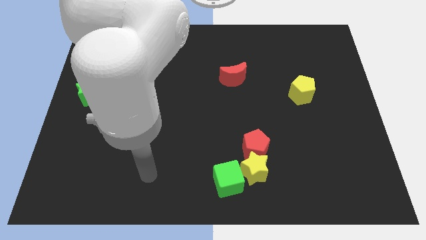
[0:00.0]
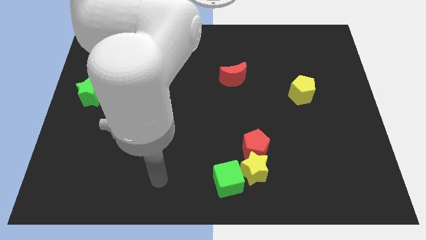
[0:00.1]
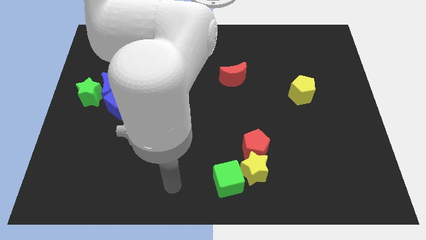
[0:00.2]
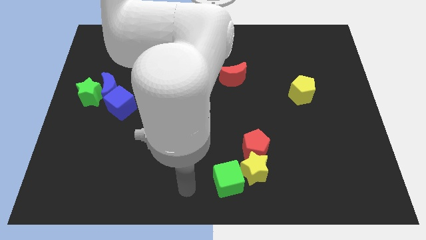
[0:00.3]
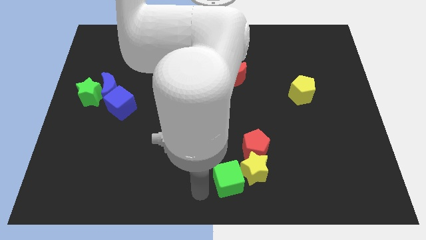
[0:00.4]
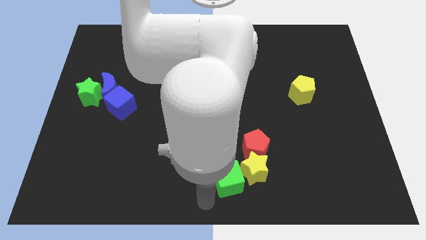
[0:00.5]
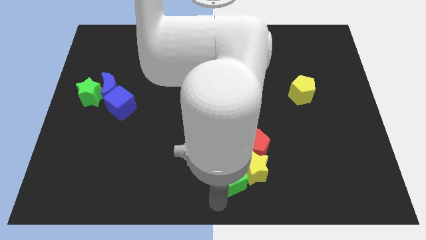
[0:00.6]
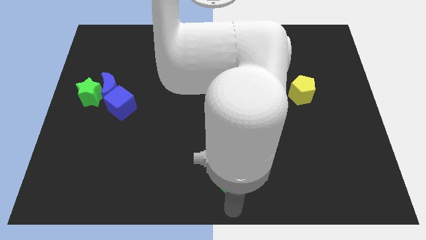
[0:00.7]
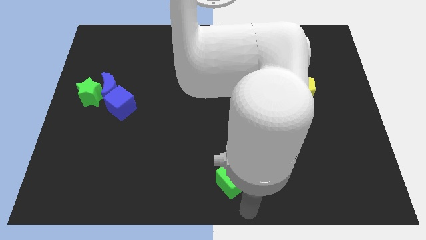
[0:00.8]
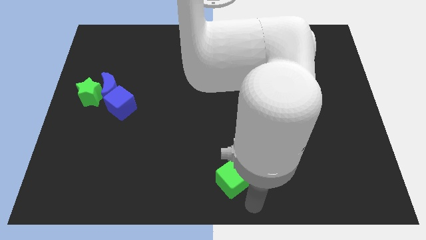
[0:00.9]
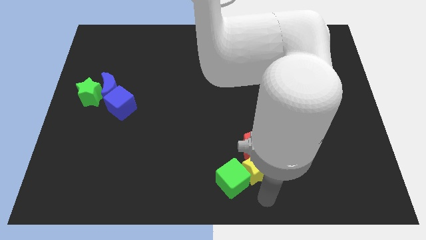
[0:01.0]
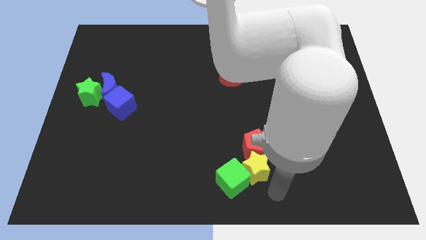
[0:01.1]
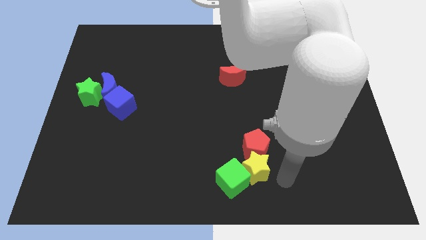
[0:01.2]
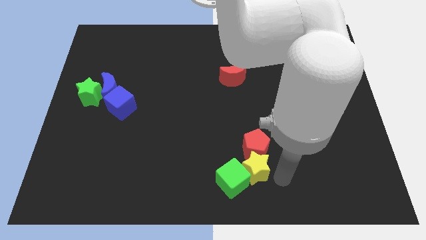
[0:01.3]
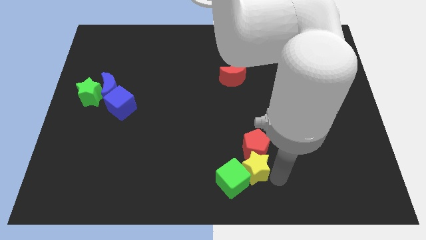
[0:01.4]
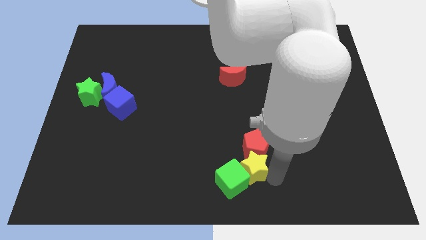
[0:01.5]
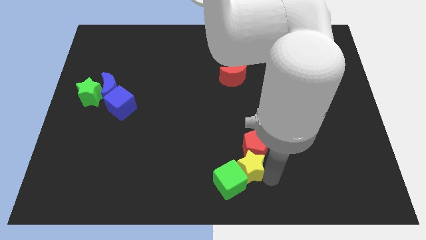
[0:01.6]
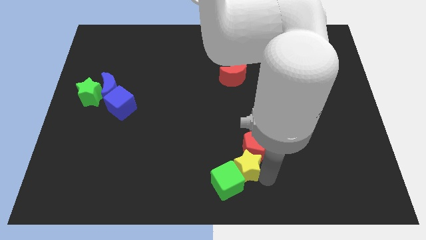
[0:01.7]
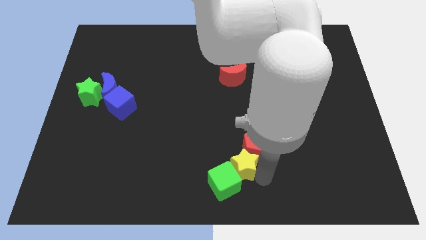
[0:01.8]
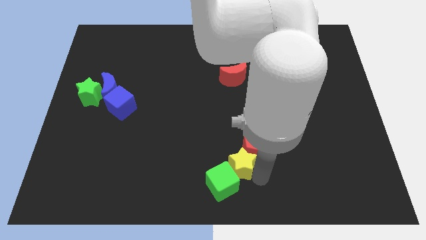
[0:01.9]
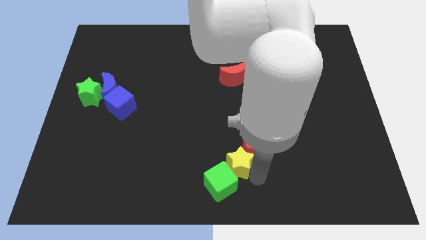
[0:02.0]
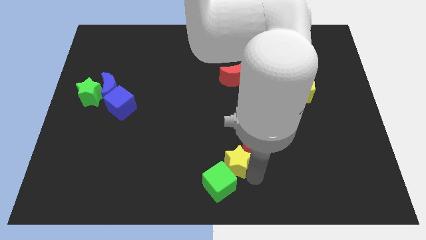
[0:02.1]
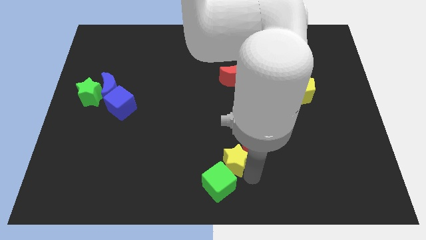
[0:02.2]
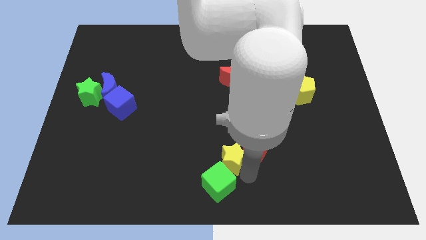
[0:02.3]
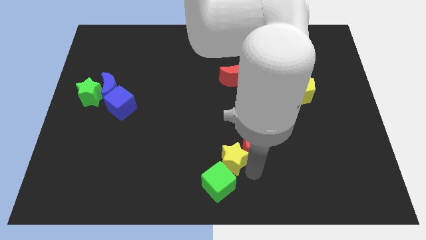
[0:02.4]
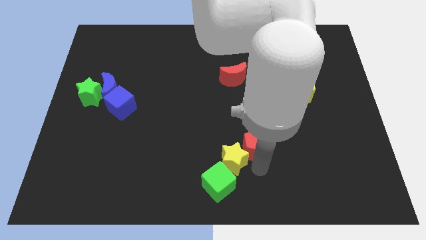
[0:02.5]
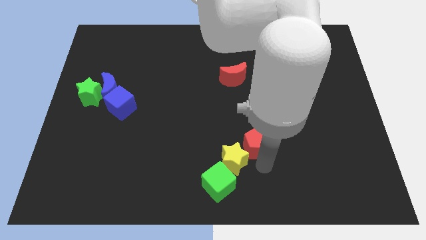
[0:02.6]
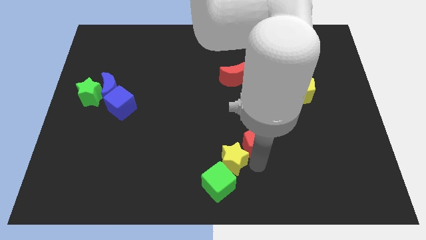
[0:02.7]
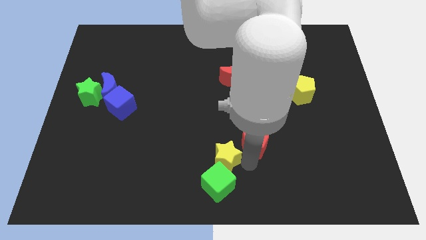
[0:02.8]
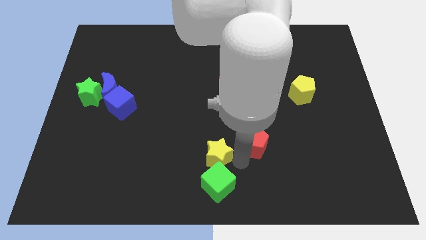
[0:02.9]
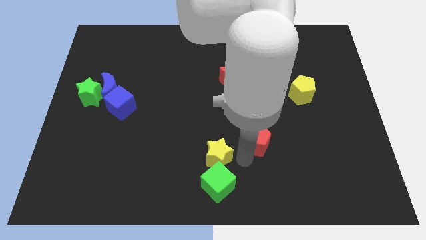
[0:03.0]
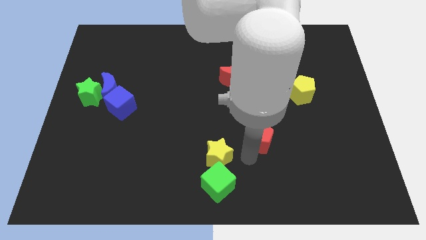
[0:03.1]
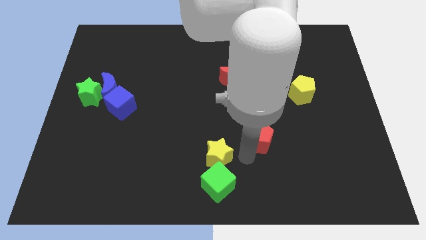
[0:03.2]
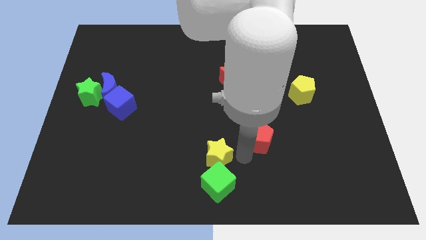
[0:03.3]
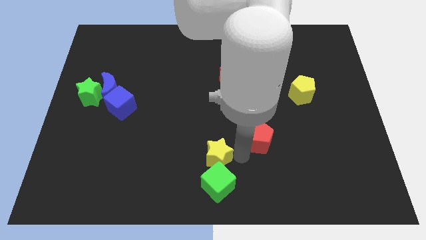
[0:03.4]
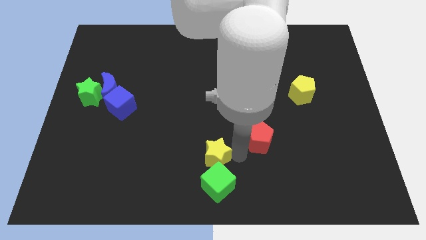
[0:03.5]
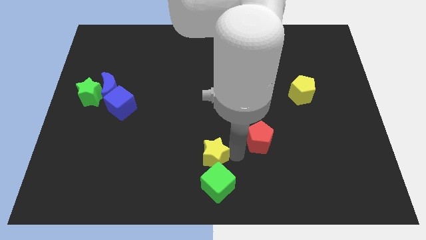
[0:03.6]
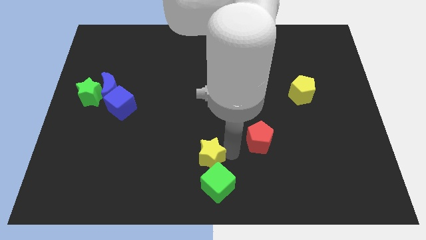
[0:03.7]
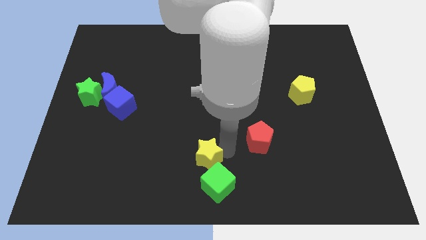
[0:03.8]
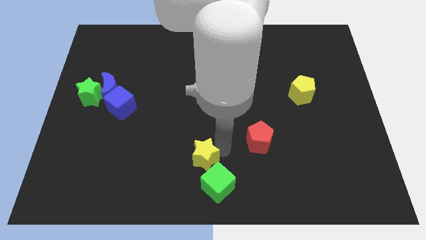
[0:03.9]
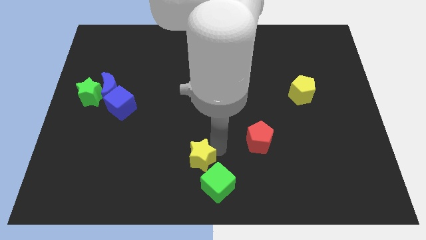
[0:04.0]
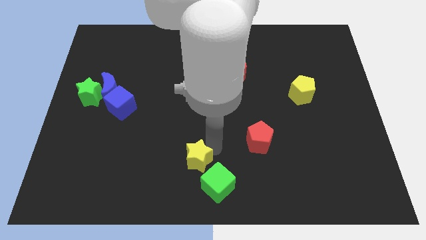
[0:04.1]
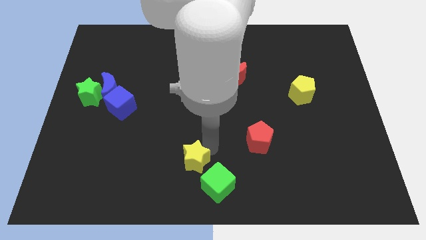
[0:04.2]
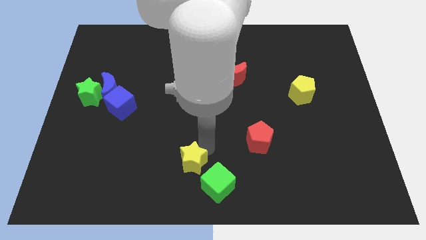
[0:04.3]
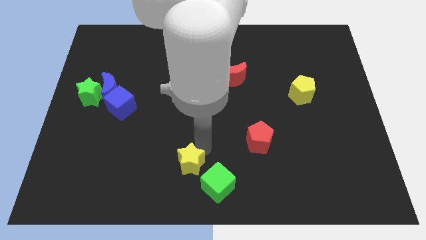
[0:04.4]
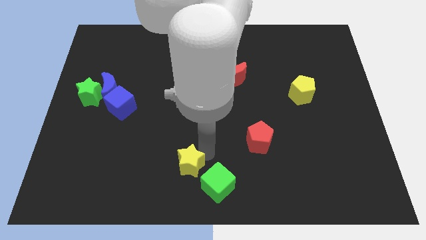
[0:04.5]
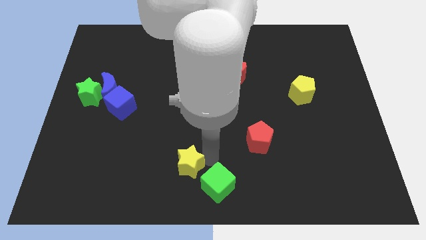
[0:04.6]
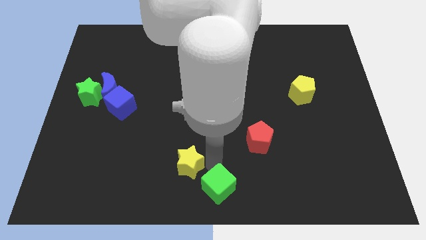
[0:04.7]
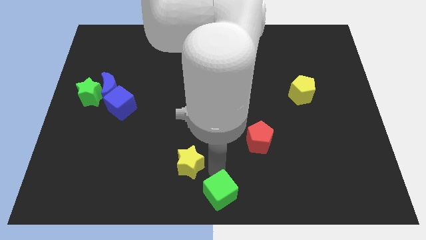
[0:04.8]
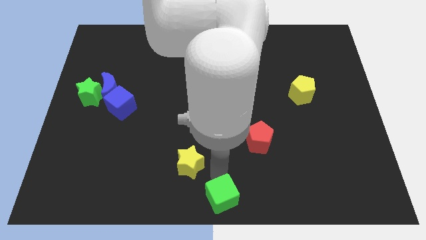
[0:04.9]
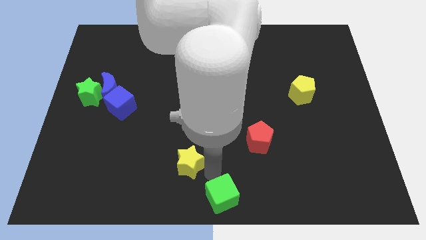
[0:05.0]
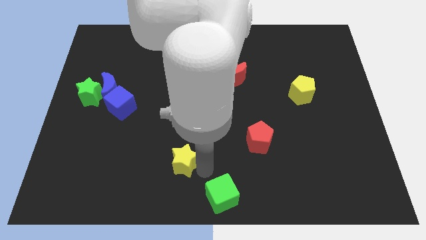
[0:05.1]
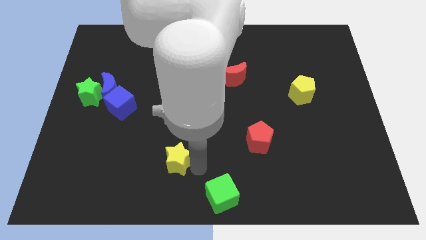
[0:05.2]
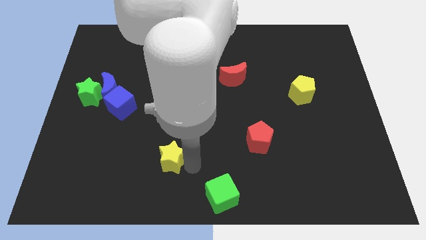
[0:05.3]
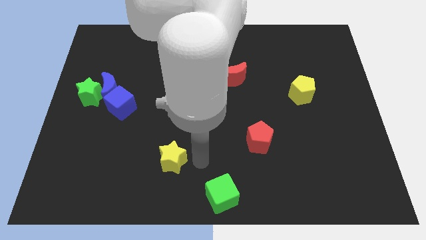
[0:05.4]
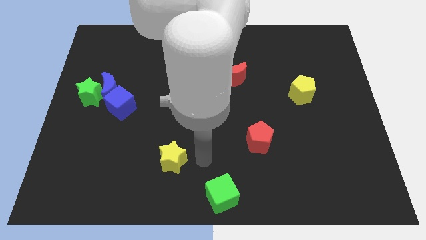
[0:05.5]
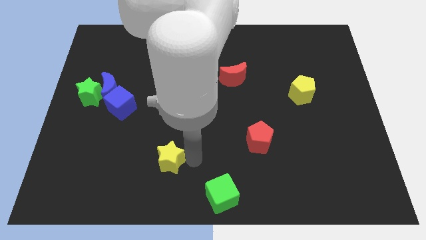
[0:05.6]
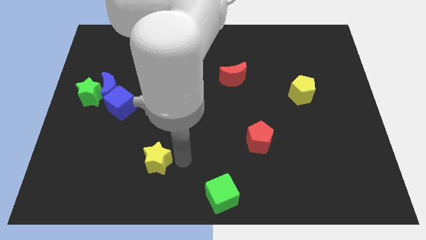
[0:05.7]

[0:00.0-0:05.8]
move the yellow star left

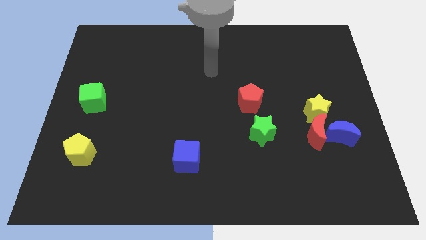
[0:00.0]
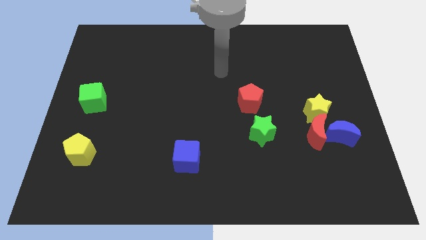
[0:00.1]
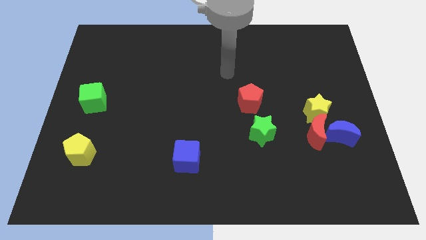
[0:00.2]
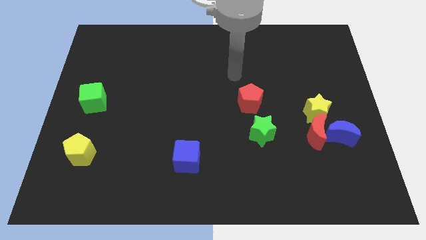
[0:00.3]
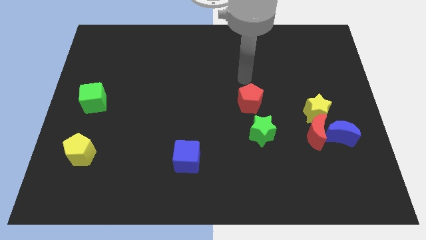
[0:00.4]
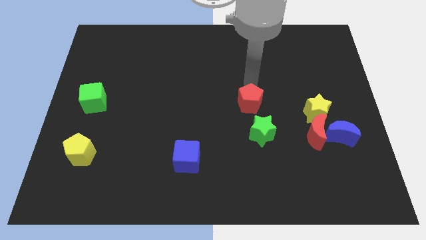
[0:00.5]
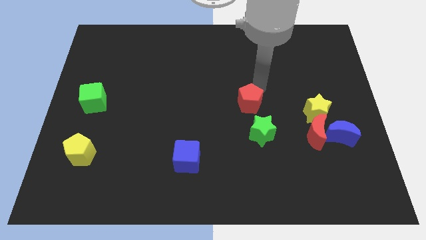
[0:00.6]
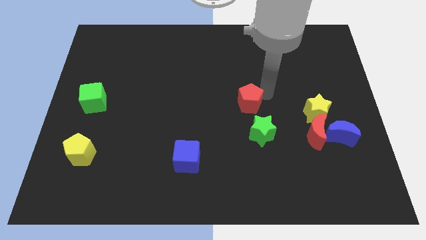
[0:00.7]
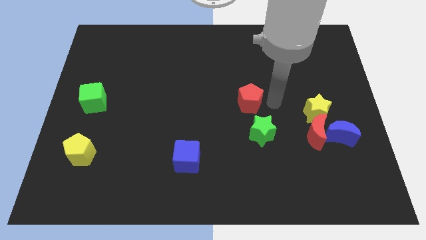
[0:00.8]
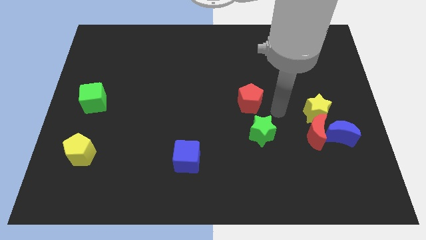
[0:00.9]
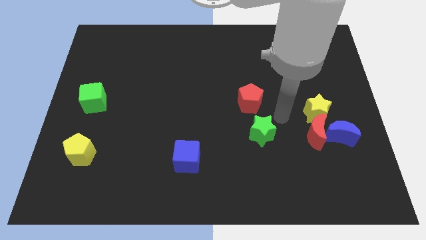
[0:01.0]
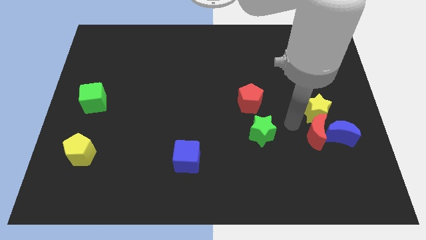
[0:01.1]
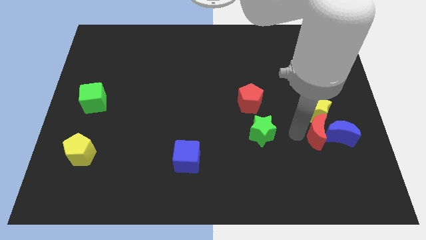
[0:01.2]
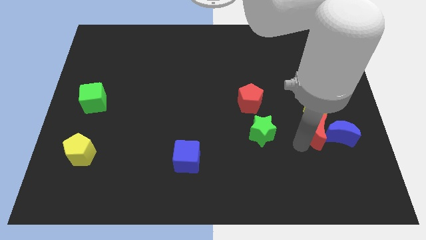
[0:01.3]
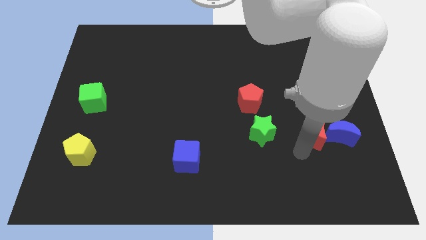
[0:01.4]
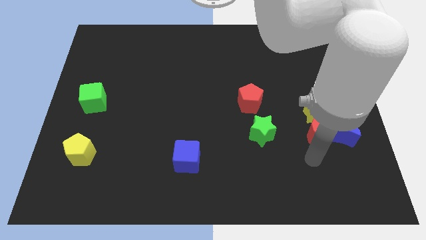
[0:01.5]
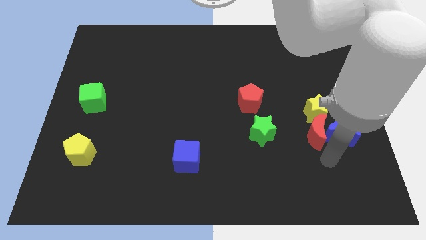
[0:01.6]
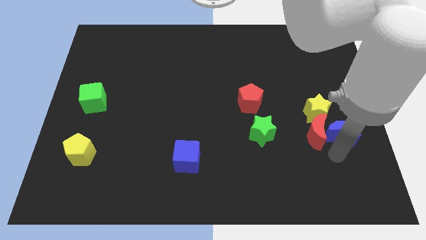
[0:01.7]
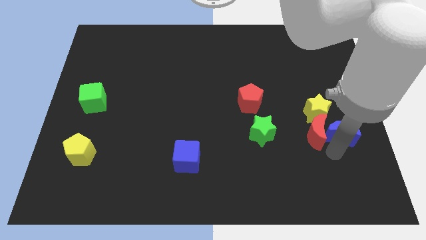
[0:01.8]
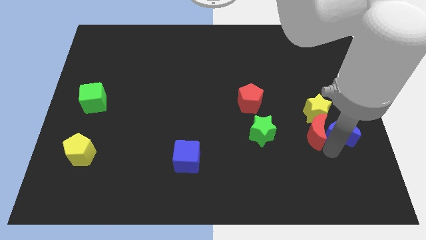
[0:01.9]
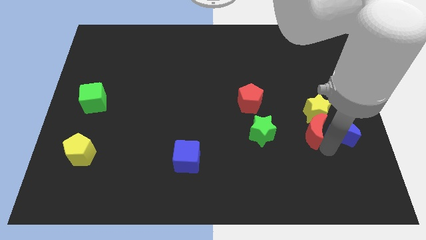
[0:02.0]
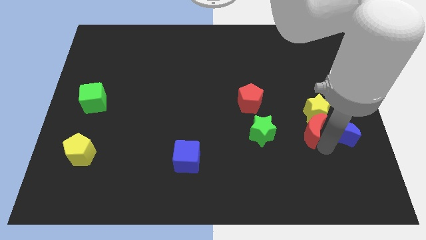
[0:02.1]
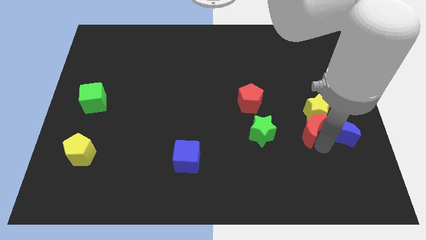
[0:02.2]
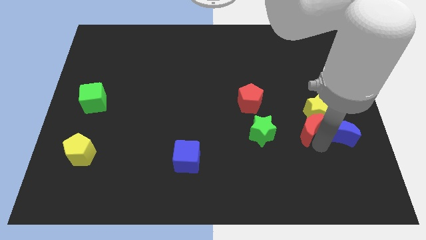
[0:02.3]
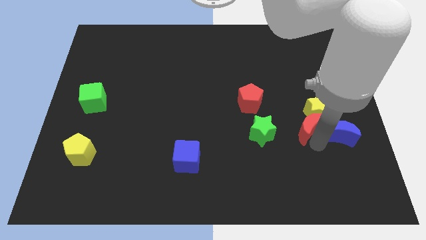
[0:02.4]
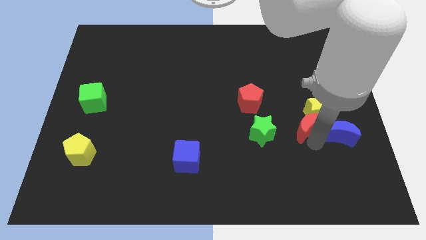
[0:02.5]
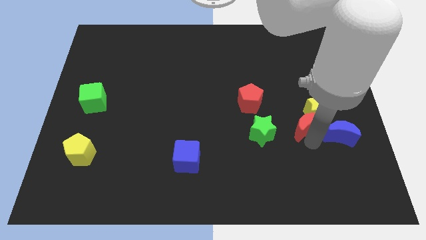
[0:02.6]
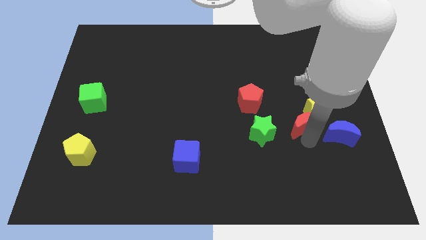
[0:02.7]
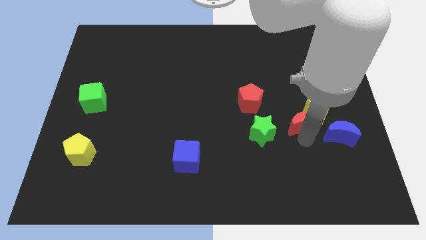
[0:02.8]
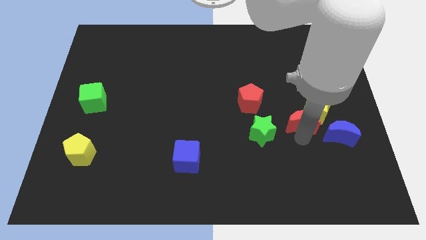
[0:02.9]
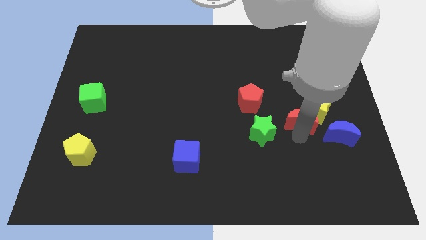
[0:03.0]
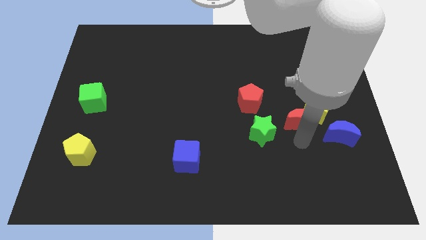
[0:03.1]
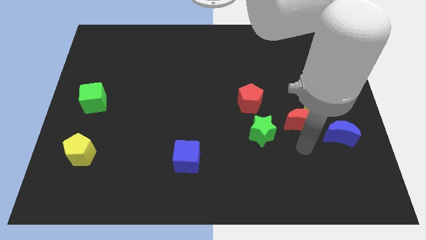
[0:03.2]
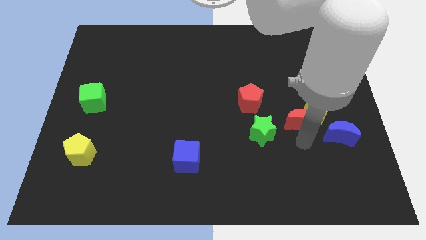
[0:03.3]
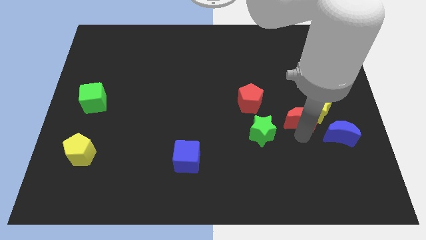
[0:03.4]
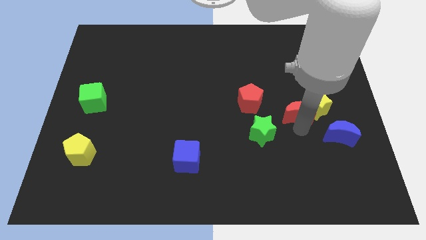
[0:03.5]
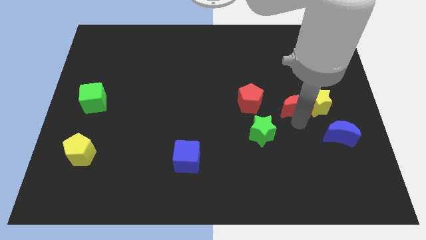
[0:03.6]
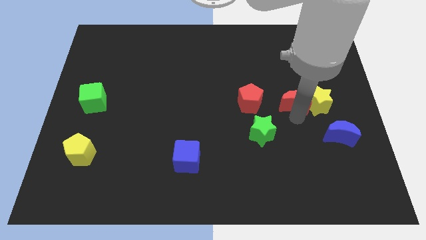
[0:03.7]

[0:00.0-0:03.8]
slightly move the red moon upwards
